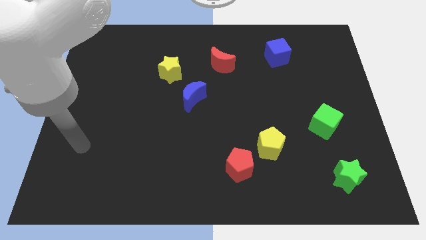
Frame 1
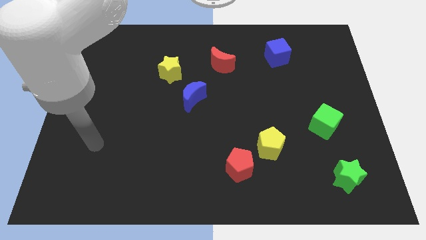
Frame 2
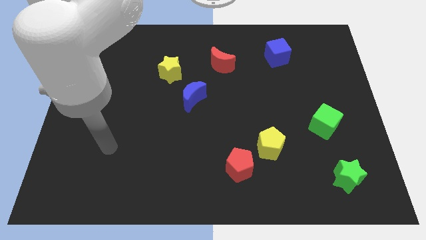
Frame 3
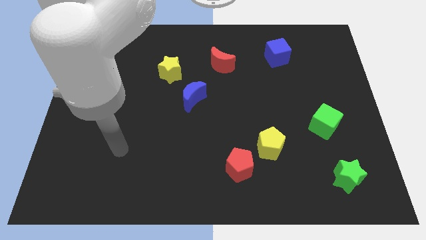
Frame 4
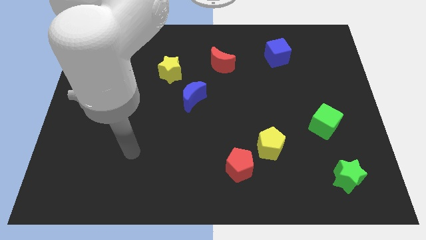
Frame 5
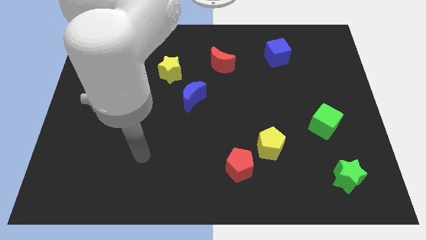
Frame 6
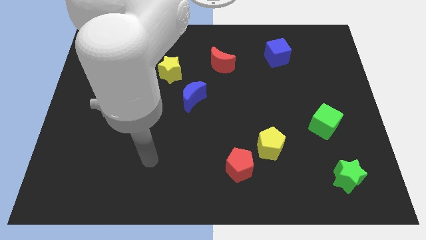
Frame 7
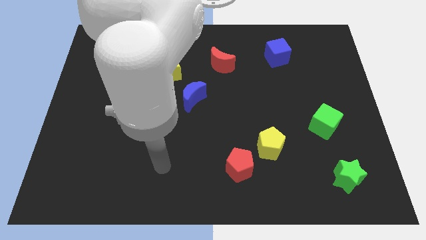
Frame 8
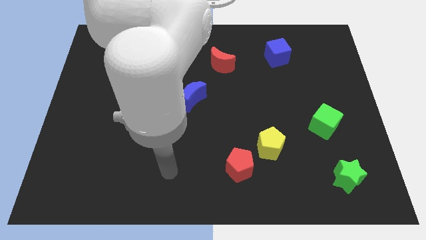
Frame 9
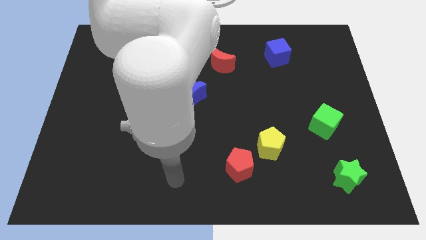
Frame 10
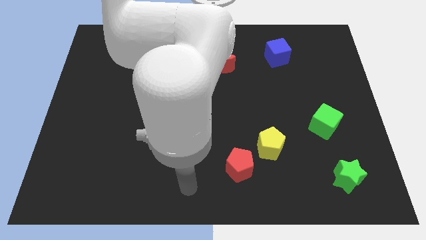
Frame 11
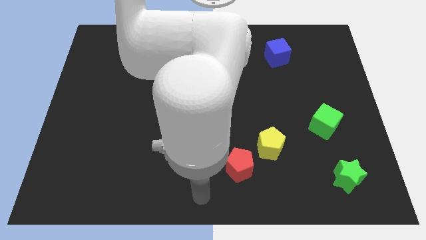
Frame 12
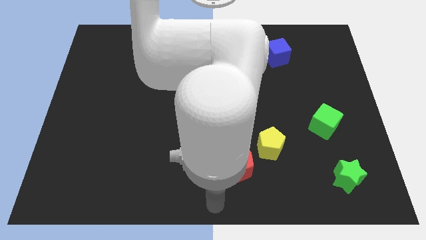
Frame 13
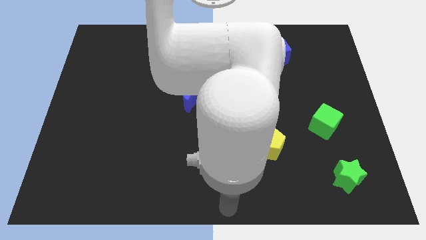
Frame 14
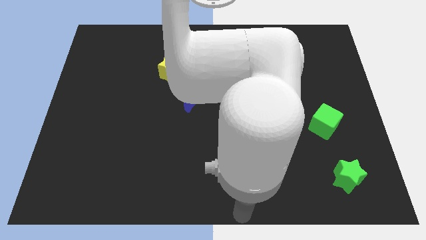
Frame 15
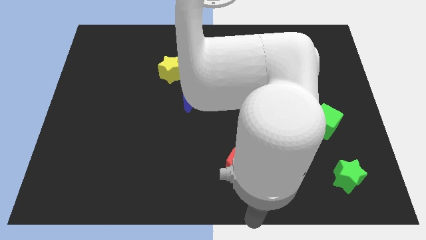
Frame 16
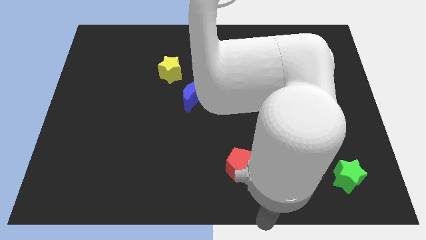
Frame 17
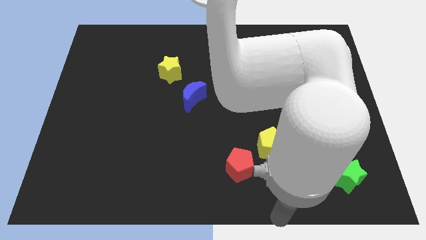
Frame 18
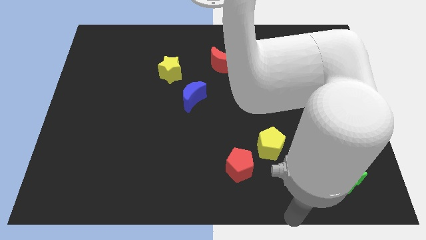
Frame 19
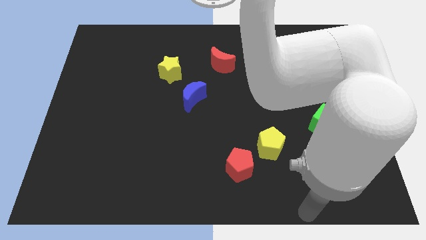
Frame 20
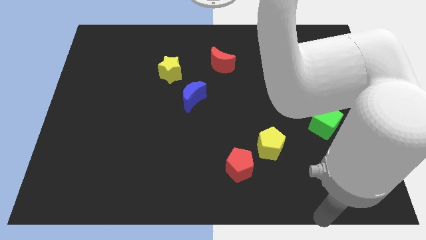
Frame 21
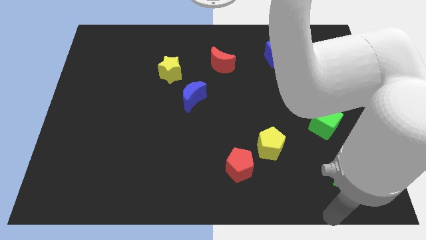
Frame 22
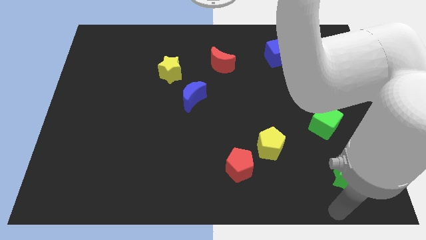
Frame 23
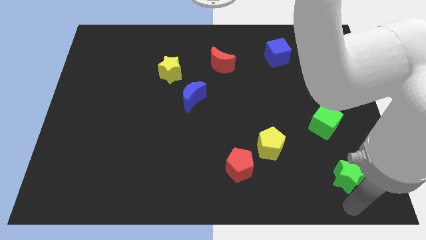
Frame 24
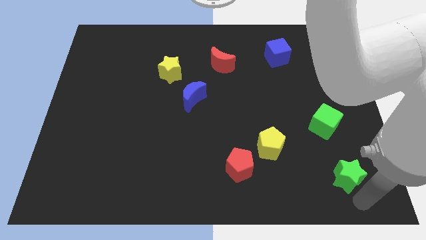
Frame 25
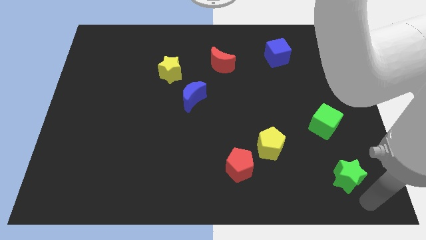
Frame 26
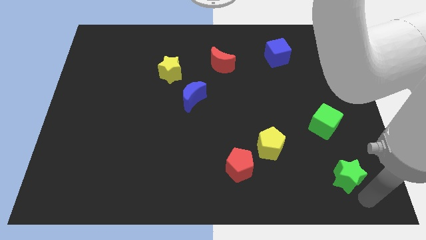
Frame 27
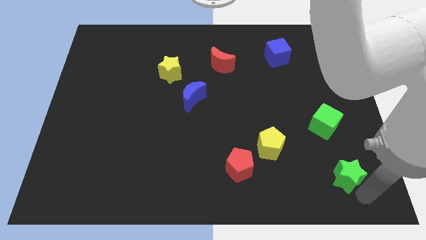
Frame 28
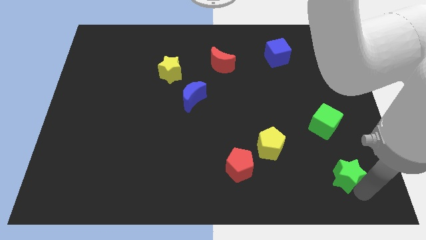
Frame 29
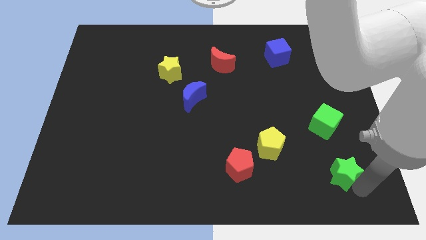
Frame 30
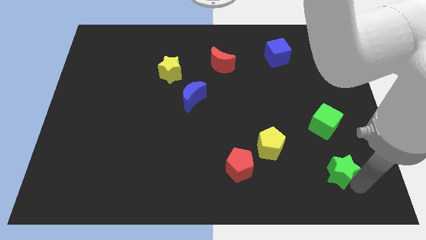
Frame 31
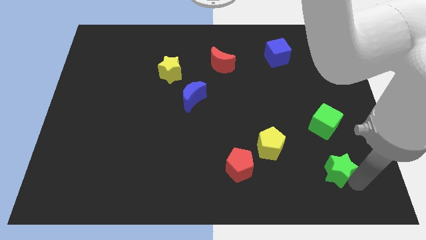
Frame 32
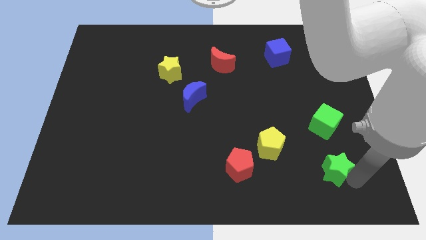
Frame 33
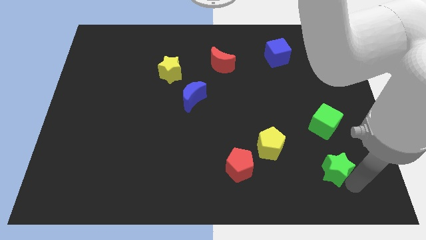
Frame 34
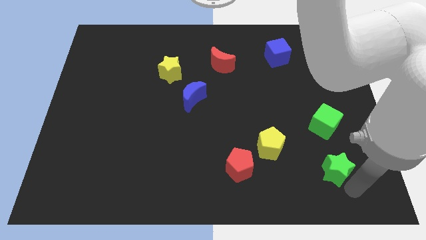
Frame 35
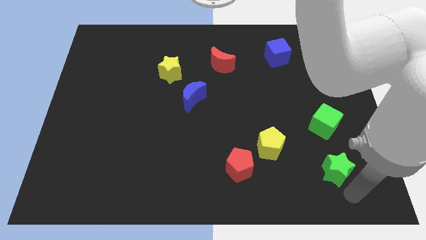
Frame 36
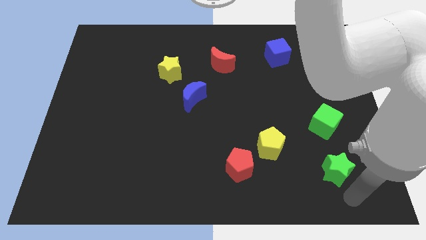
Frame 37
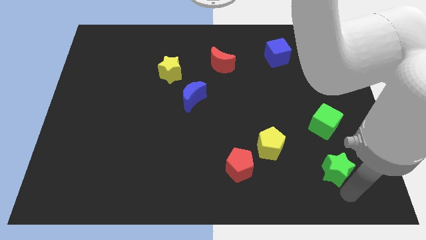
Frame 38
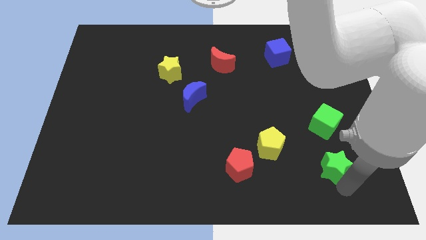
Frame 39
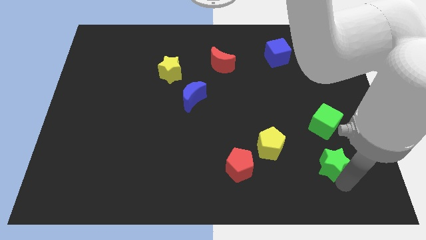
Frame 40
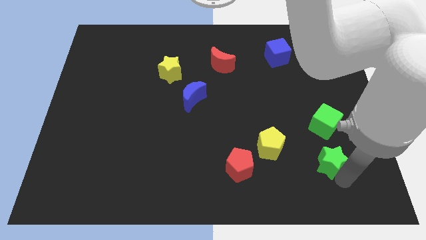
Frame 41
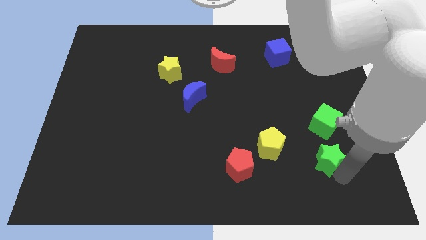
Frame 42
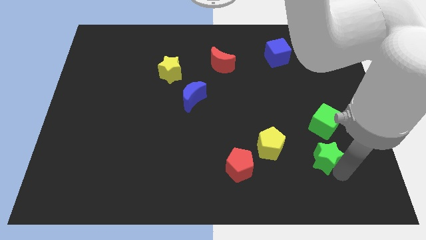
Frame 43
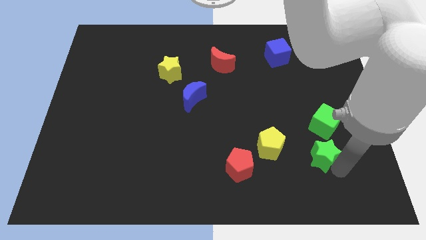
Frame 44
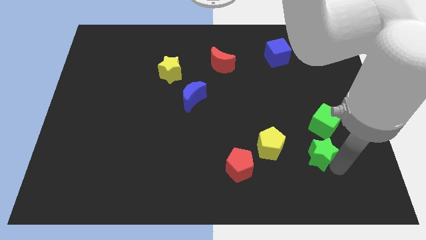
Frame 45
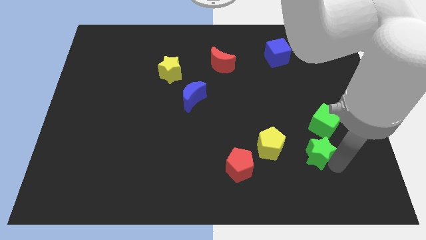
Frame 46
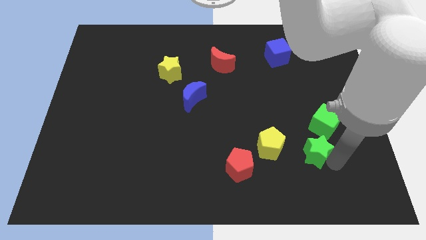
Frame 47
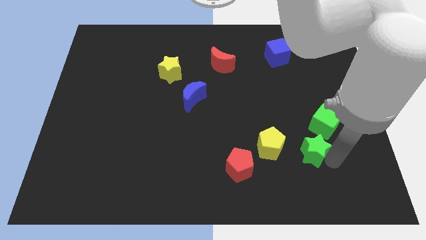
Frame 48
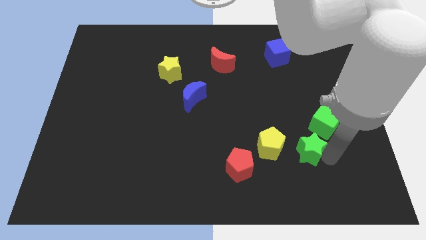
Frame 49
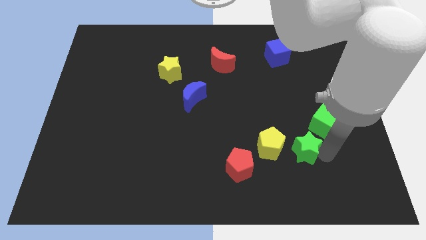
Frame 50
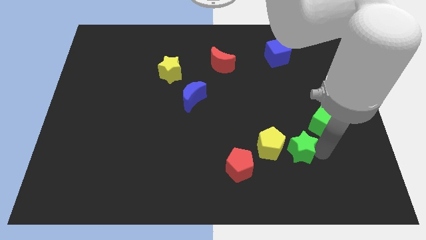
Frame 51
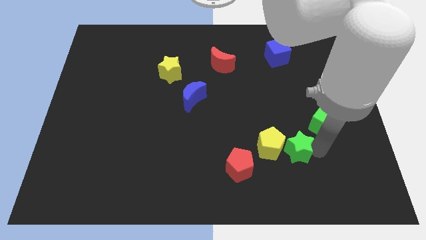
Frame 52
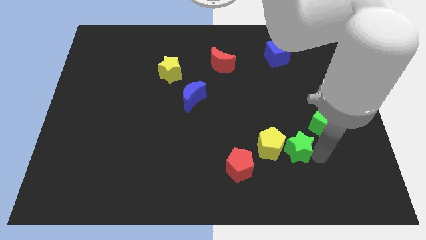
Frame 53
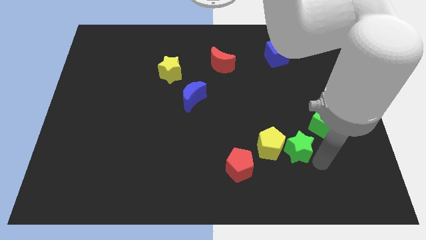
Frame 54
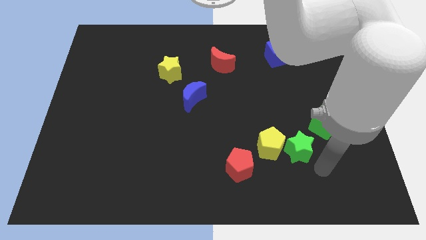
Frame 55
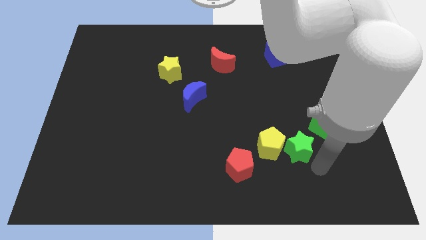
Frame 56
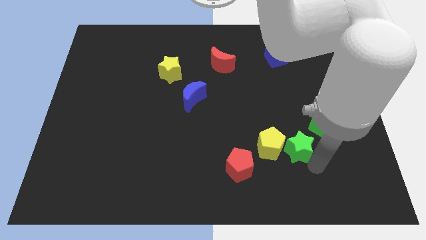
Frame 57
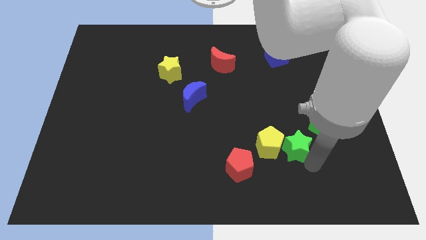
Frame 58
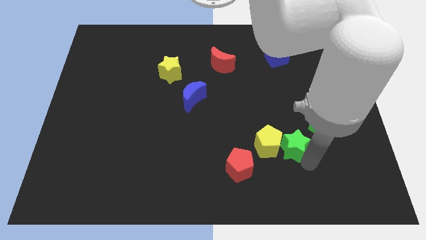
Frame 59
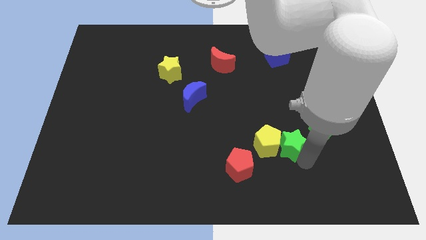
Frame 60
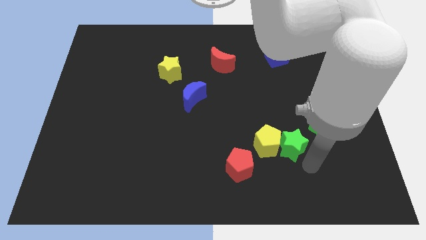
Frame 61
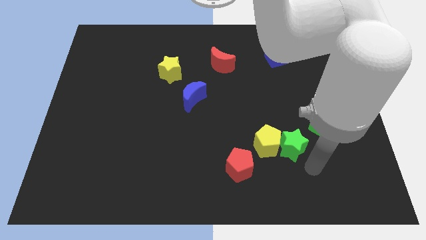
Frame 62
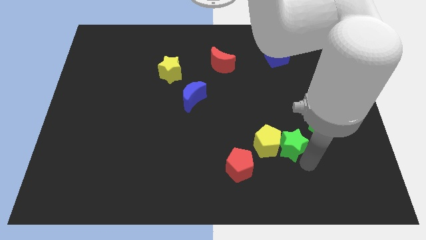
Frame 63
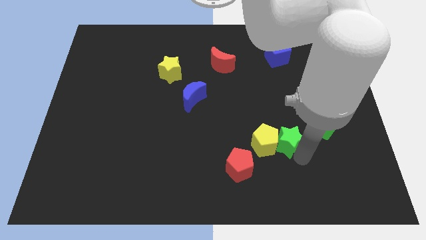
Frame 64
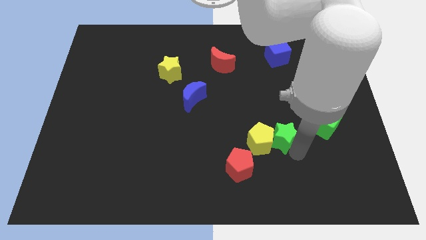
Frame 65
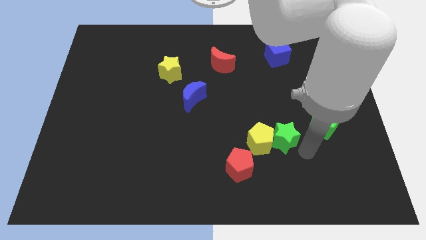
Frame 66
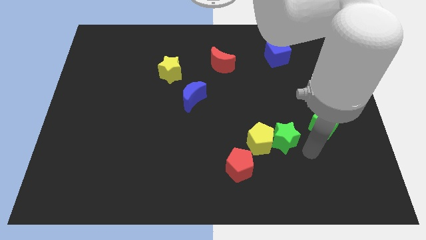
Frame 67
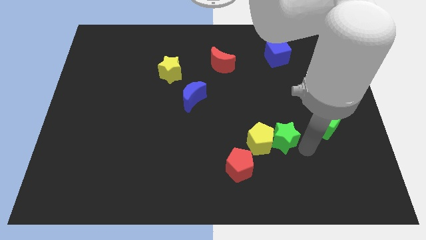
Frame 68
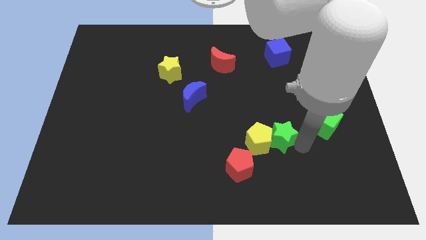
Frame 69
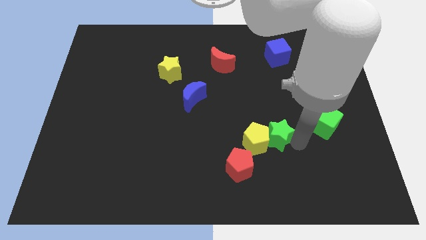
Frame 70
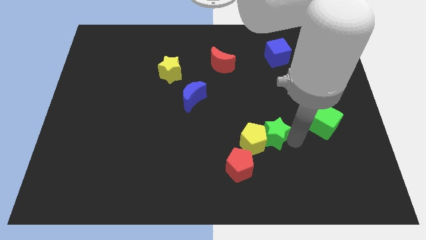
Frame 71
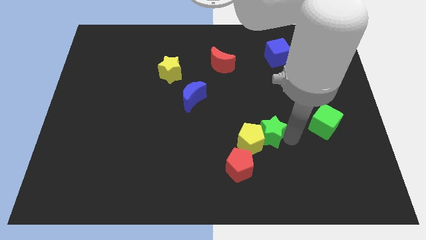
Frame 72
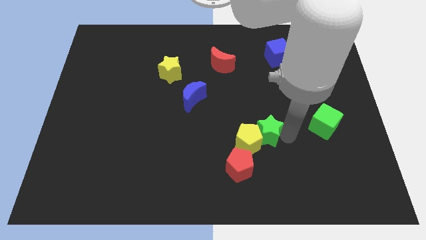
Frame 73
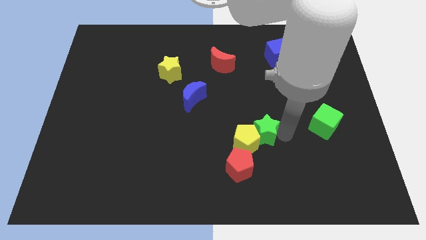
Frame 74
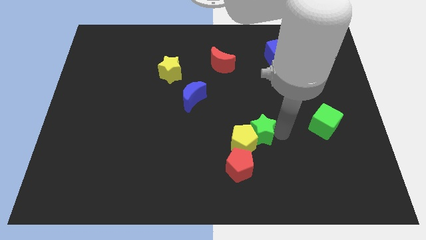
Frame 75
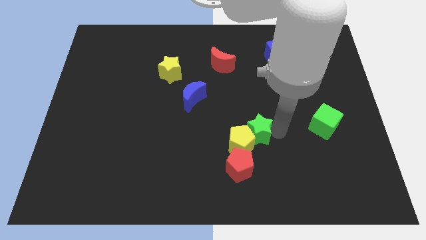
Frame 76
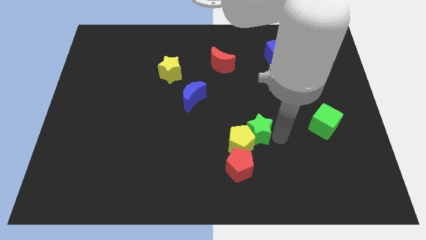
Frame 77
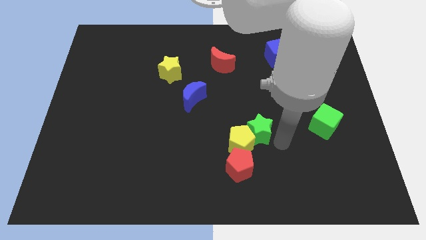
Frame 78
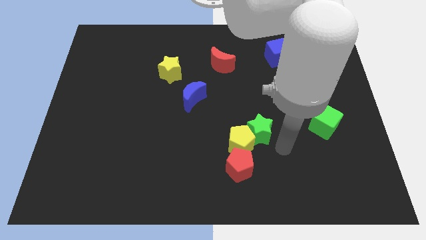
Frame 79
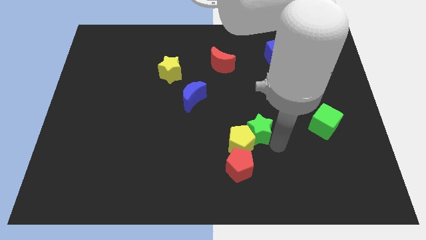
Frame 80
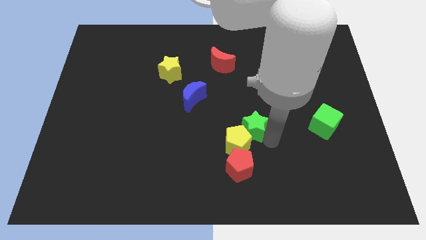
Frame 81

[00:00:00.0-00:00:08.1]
push the green star to the middle
